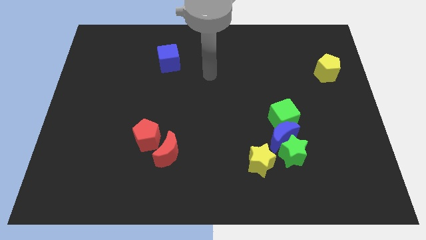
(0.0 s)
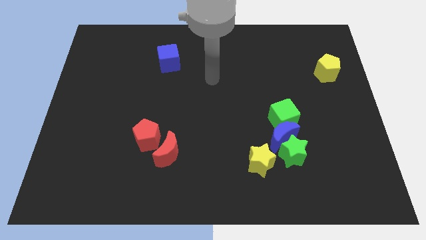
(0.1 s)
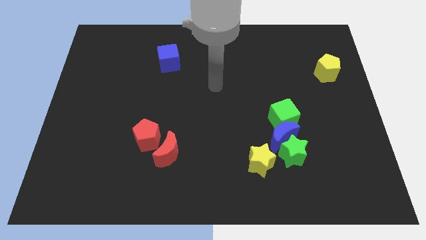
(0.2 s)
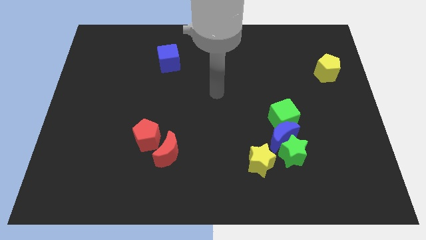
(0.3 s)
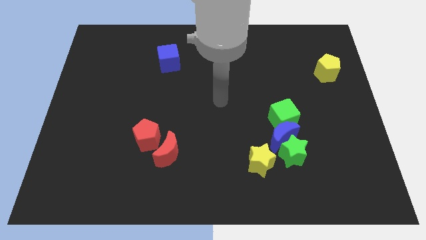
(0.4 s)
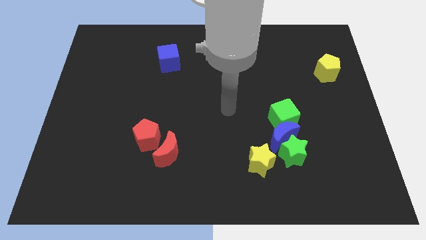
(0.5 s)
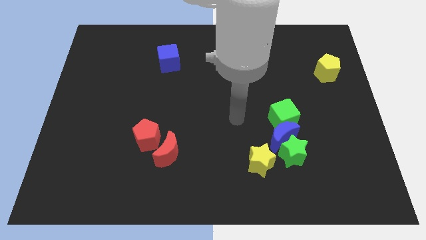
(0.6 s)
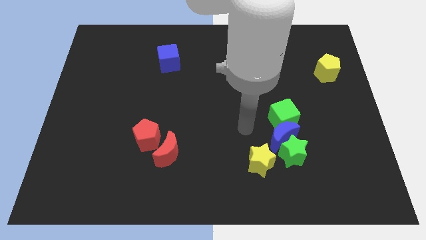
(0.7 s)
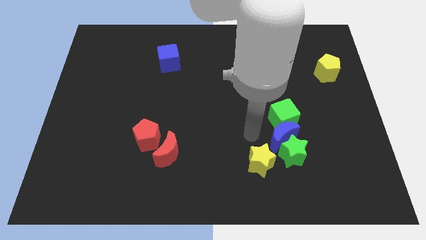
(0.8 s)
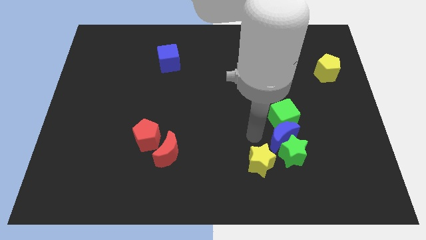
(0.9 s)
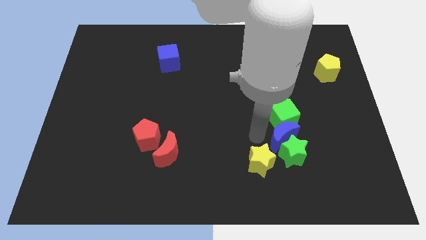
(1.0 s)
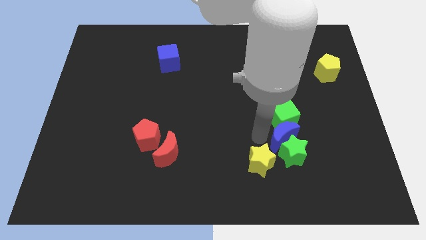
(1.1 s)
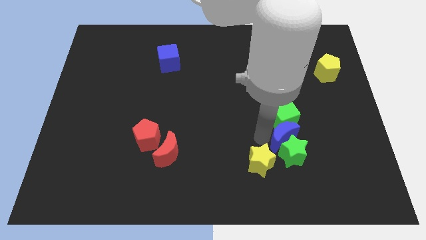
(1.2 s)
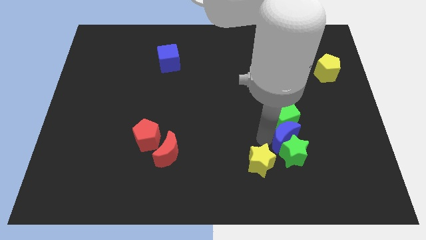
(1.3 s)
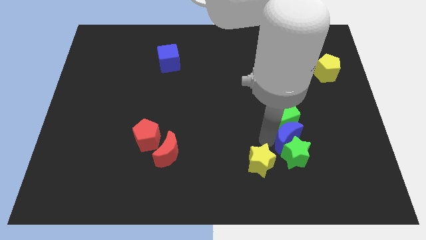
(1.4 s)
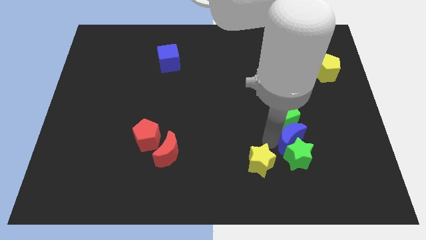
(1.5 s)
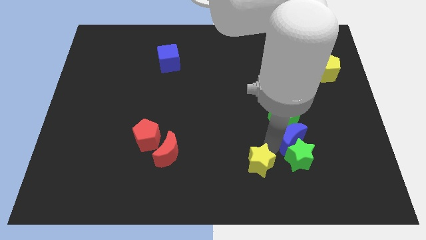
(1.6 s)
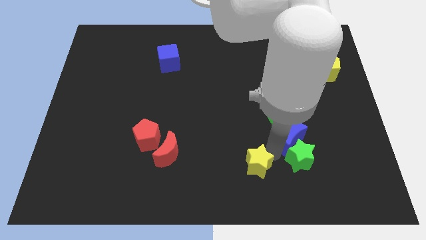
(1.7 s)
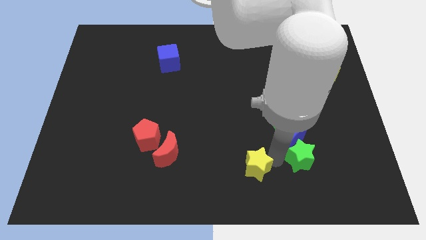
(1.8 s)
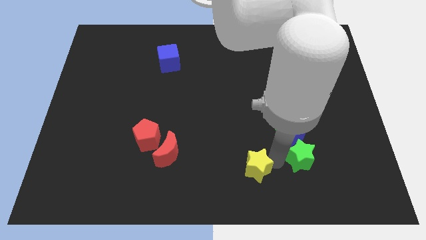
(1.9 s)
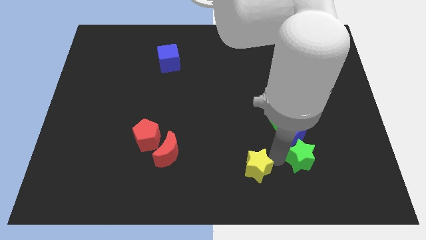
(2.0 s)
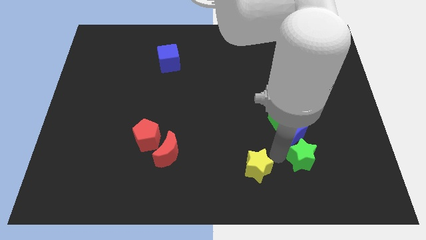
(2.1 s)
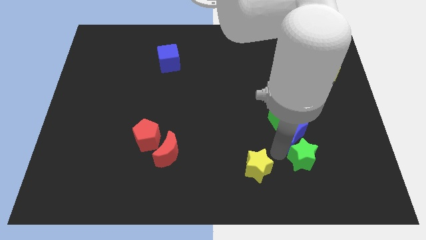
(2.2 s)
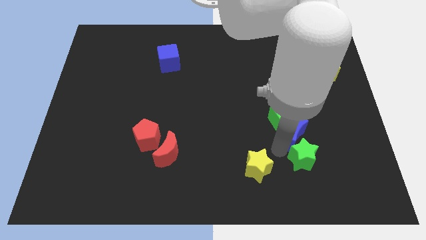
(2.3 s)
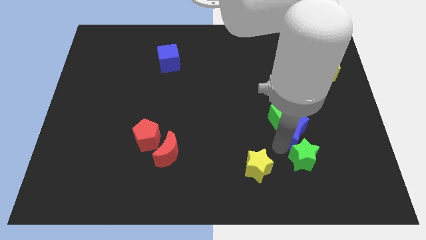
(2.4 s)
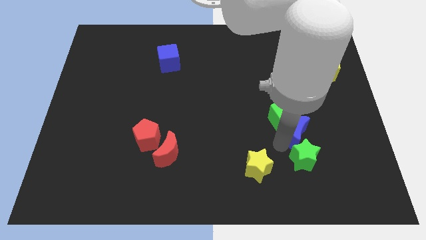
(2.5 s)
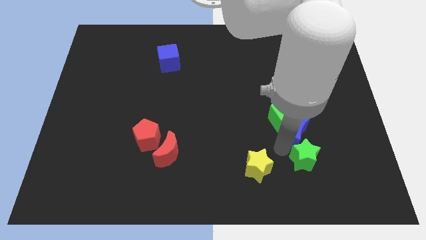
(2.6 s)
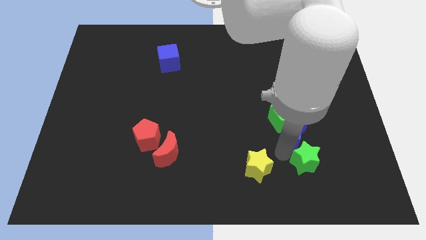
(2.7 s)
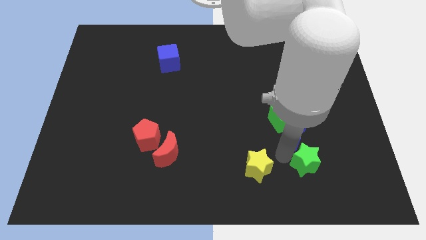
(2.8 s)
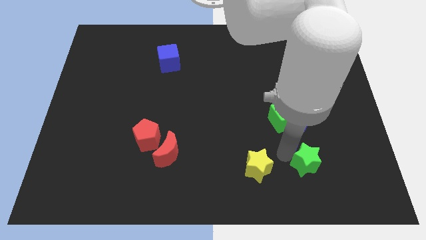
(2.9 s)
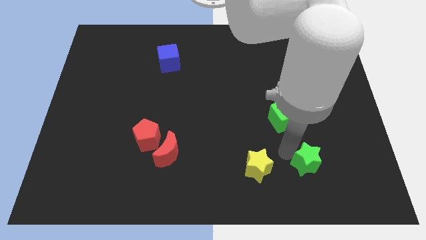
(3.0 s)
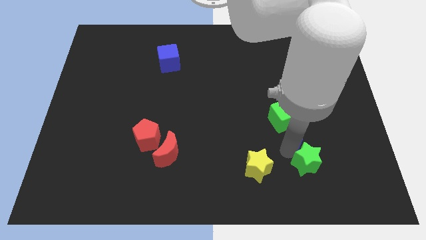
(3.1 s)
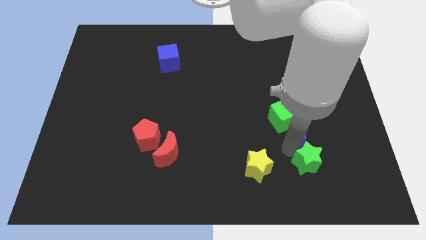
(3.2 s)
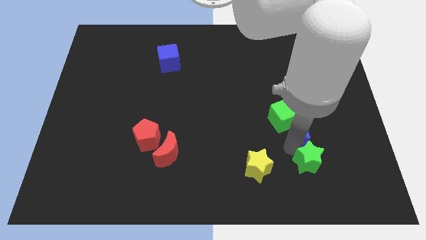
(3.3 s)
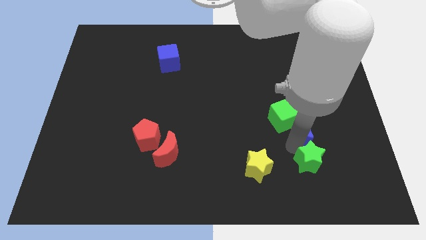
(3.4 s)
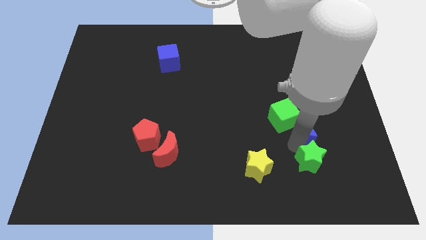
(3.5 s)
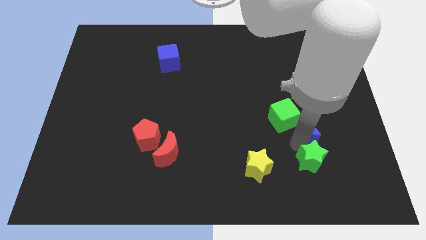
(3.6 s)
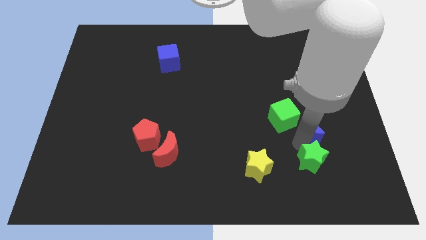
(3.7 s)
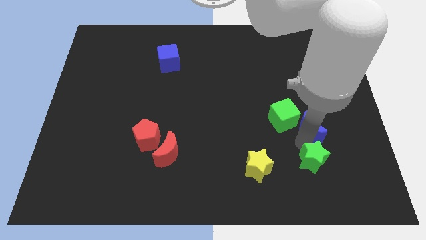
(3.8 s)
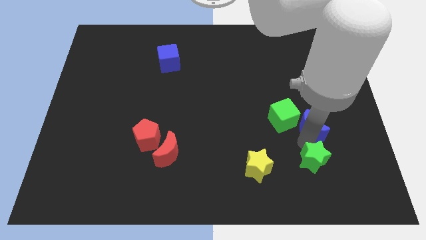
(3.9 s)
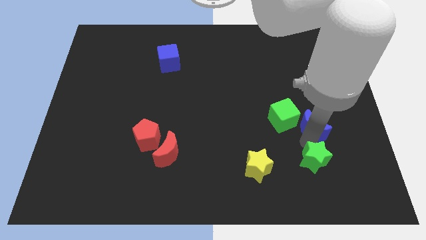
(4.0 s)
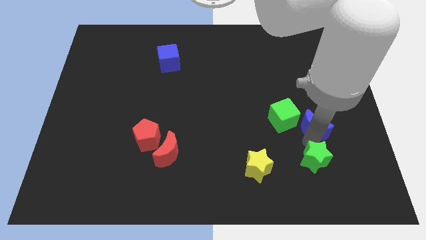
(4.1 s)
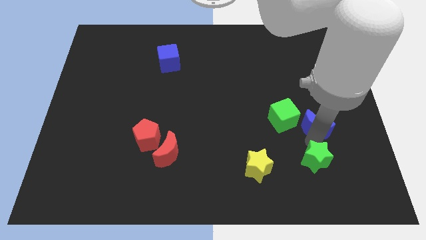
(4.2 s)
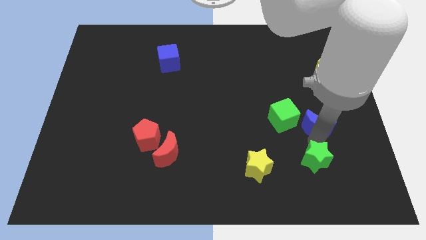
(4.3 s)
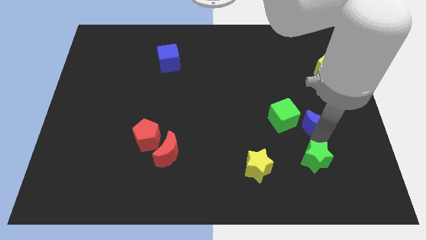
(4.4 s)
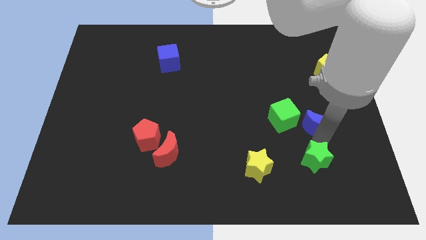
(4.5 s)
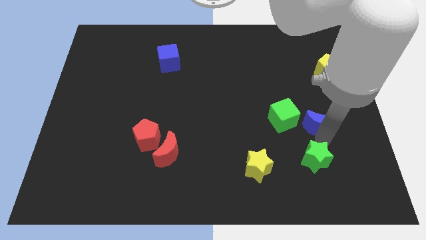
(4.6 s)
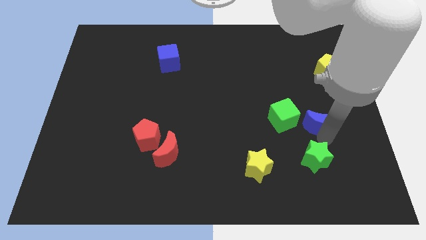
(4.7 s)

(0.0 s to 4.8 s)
move the blue moon away from the green star, green cube, and yellow star

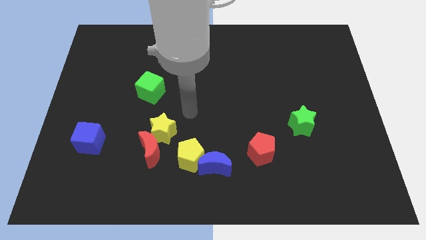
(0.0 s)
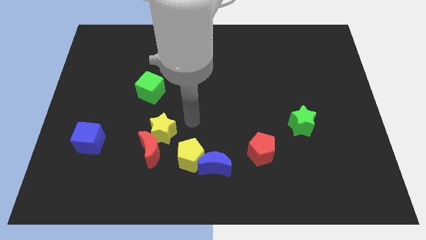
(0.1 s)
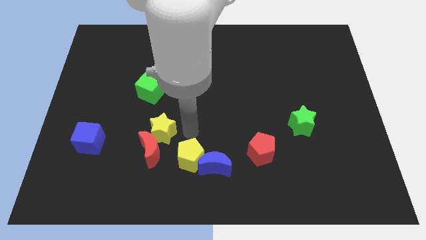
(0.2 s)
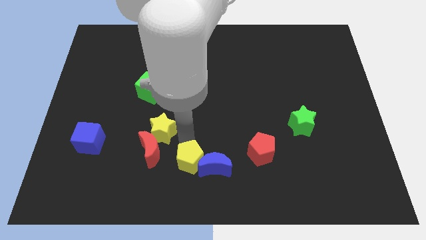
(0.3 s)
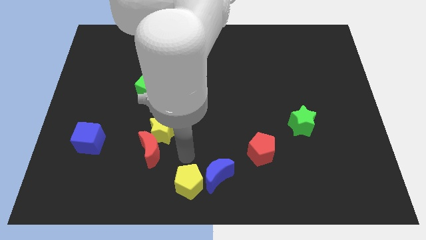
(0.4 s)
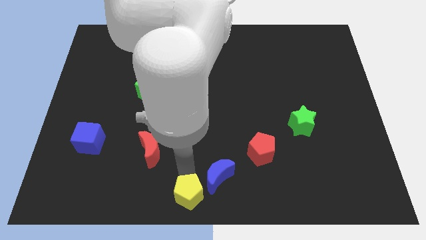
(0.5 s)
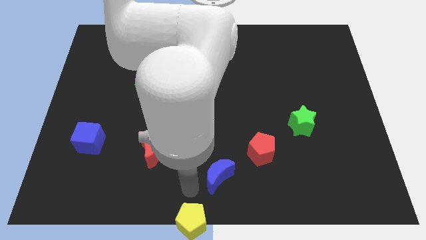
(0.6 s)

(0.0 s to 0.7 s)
pull the blue moon apart from the yellow pentagon

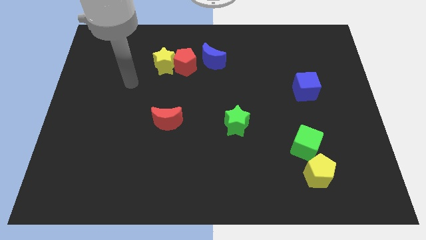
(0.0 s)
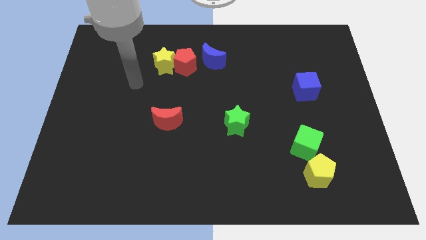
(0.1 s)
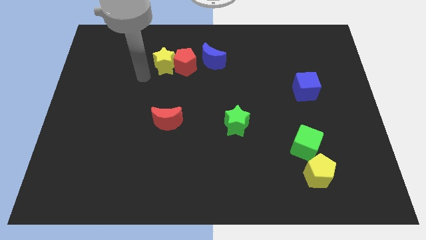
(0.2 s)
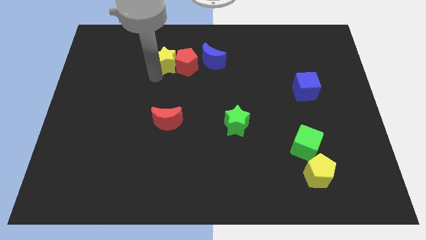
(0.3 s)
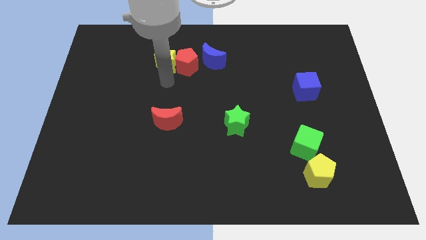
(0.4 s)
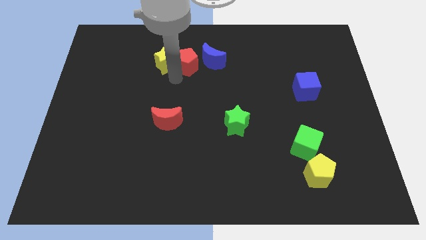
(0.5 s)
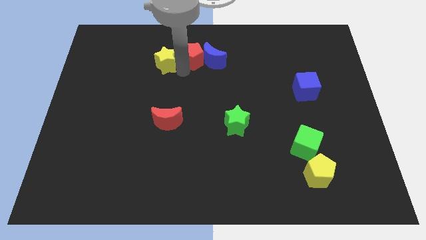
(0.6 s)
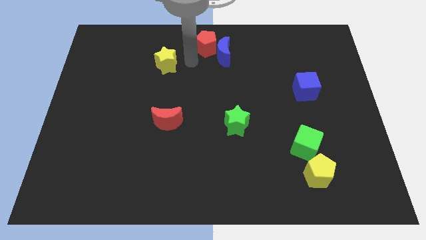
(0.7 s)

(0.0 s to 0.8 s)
separate the yellow star from the red pentagon

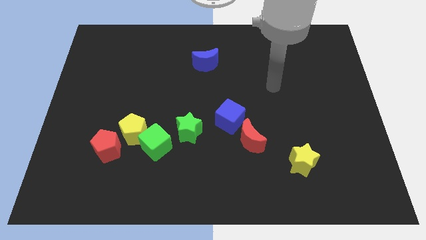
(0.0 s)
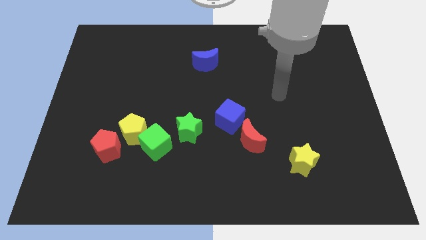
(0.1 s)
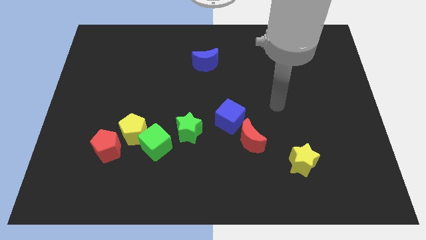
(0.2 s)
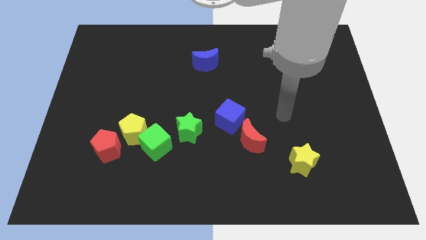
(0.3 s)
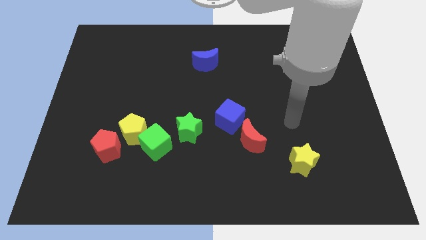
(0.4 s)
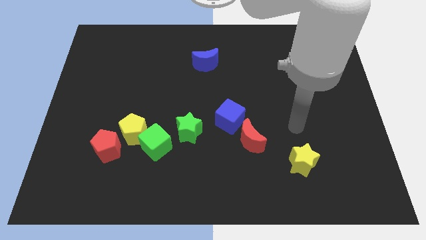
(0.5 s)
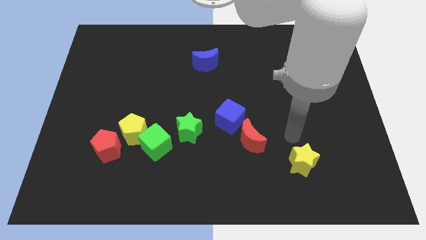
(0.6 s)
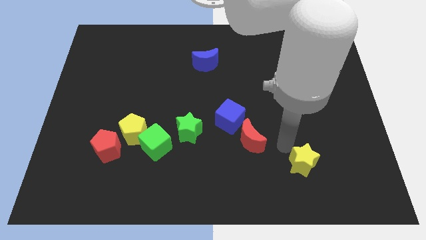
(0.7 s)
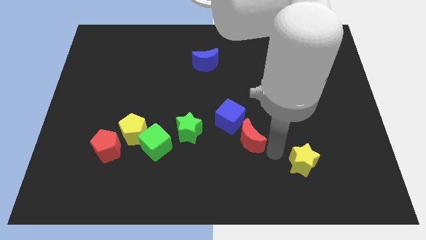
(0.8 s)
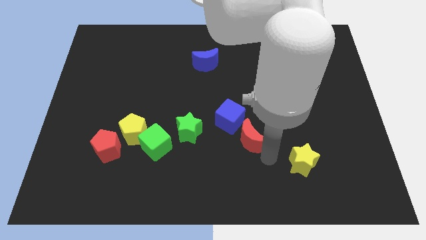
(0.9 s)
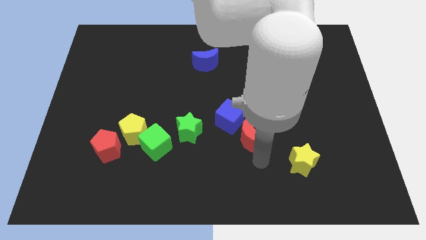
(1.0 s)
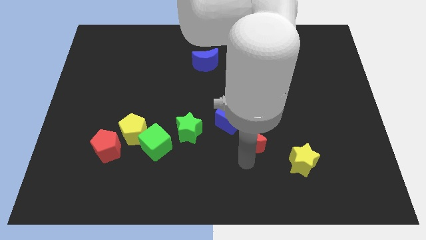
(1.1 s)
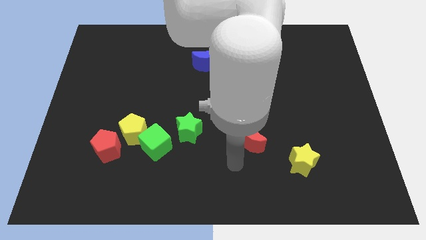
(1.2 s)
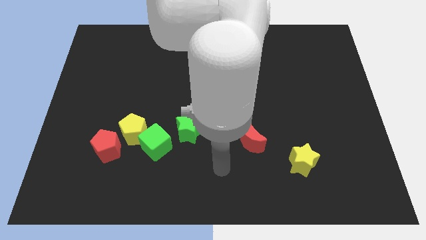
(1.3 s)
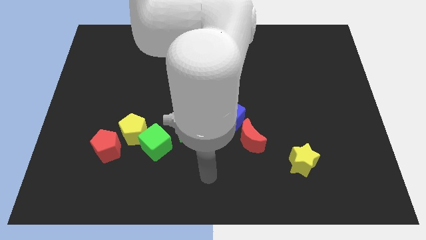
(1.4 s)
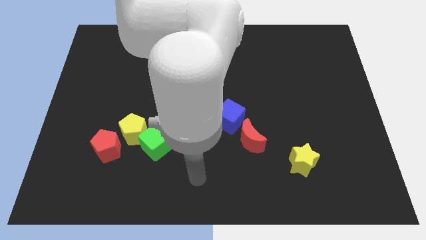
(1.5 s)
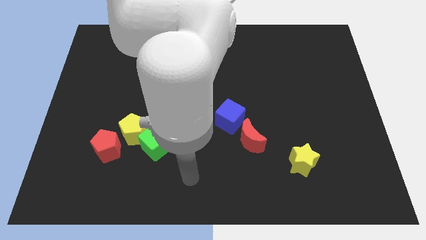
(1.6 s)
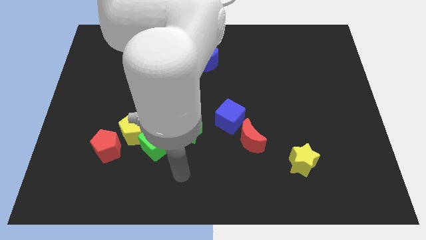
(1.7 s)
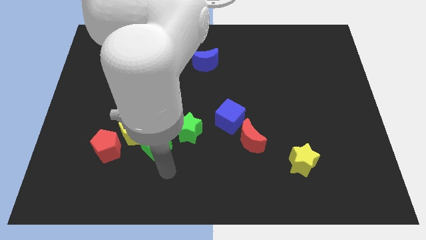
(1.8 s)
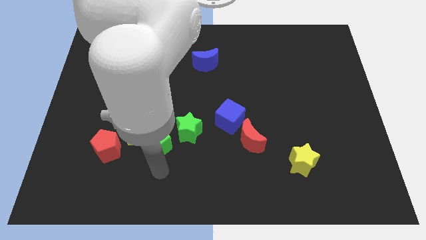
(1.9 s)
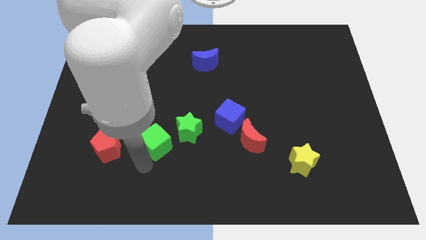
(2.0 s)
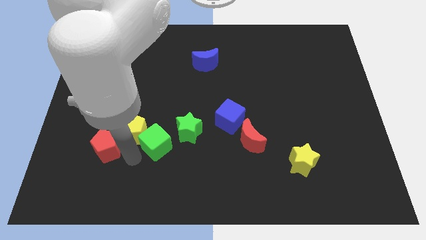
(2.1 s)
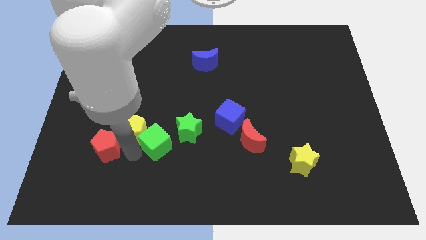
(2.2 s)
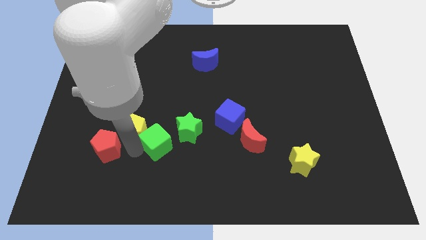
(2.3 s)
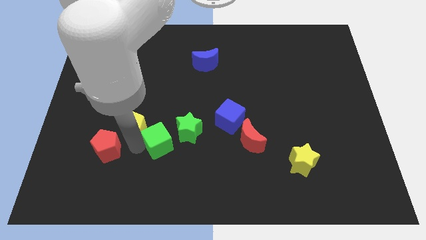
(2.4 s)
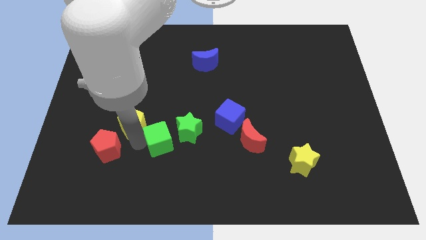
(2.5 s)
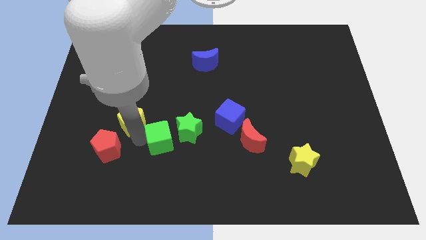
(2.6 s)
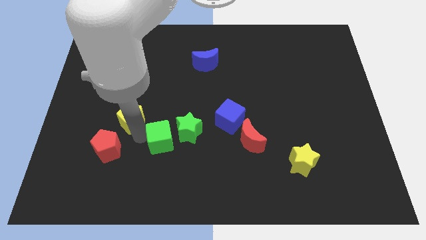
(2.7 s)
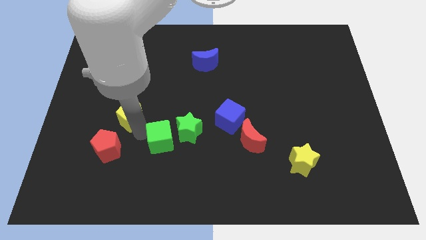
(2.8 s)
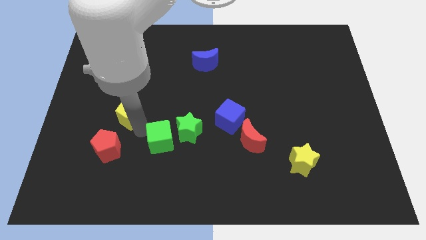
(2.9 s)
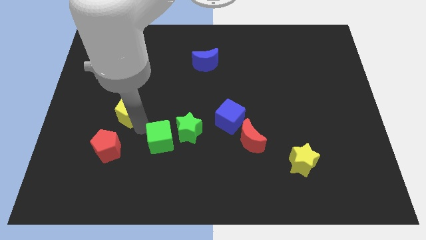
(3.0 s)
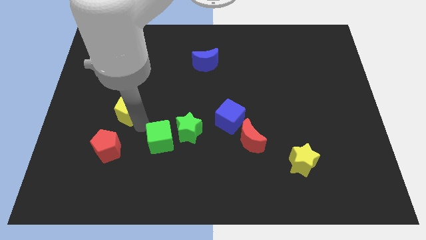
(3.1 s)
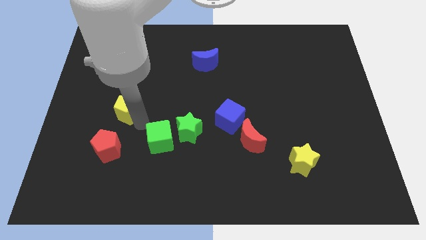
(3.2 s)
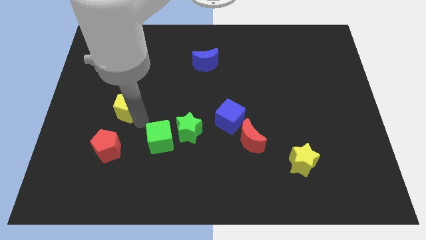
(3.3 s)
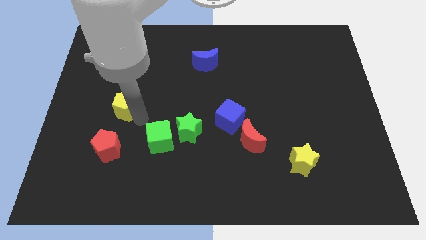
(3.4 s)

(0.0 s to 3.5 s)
separate the yellow pentagon from the green cube and red pentagon
